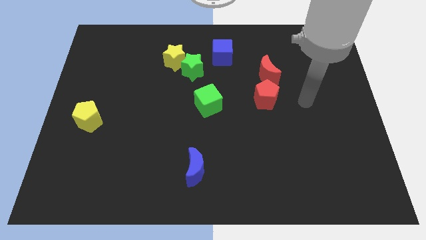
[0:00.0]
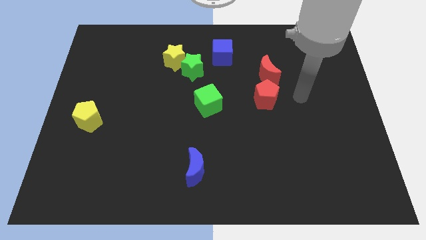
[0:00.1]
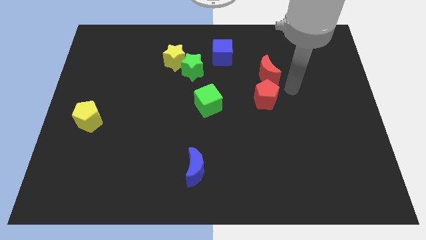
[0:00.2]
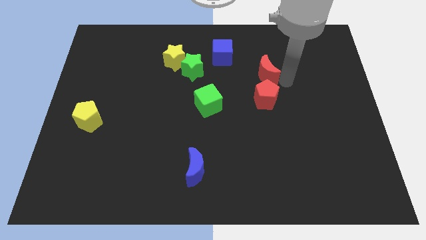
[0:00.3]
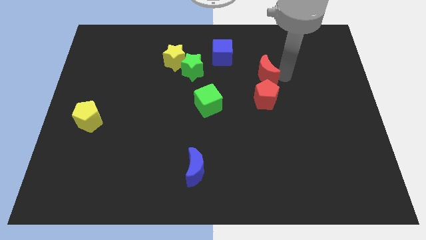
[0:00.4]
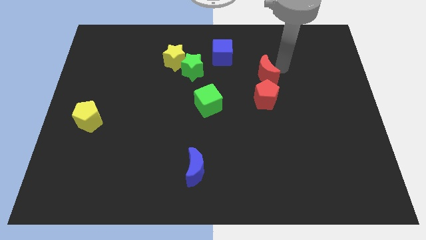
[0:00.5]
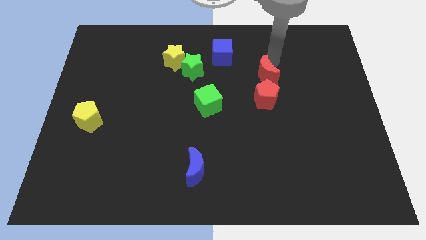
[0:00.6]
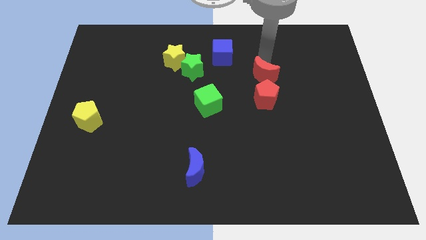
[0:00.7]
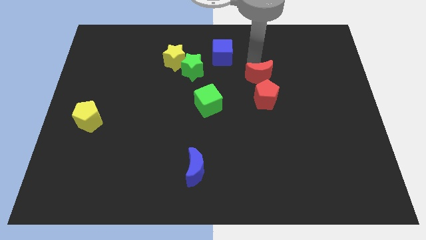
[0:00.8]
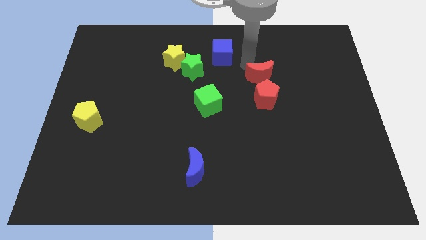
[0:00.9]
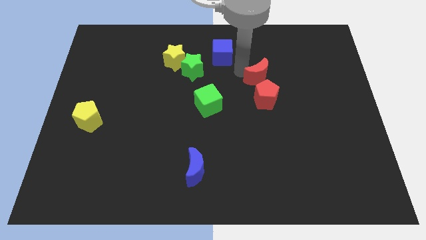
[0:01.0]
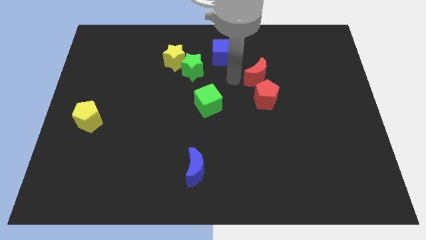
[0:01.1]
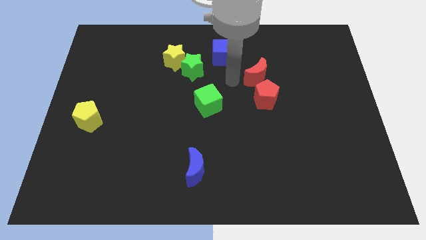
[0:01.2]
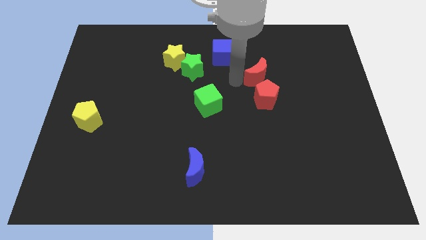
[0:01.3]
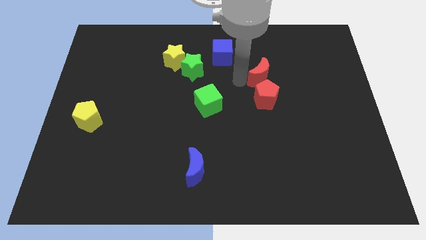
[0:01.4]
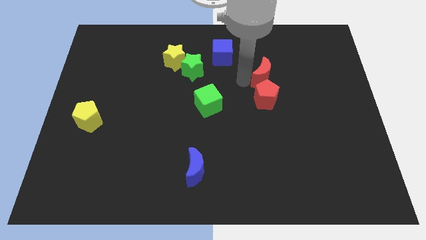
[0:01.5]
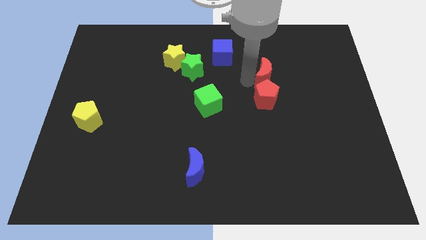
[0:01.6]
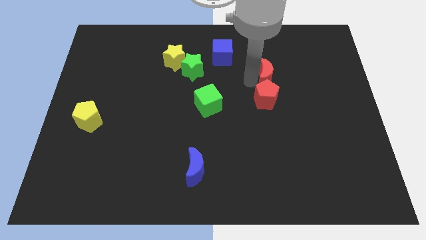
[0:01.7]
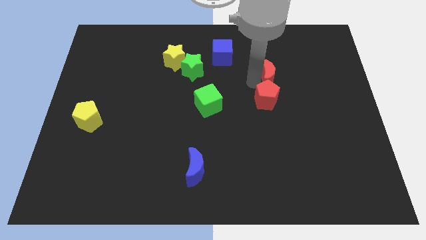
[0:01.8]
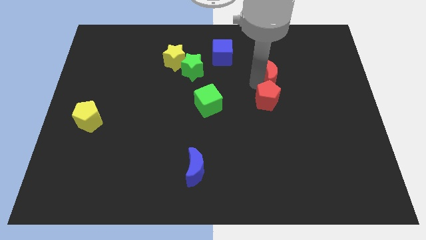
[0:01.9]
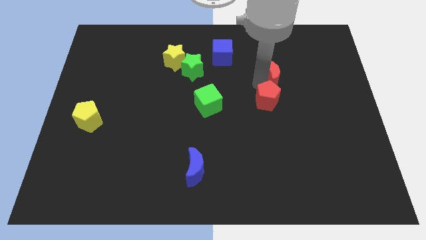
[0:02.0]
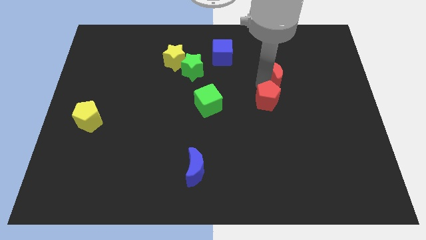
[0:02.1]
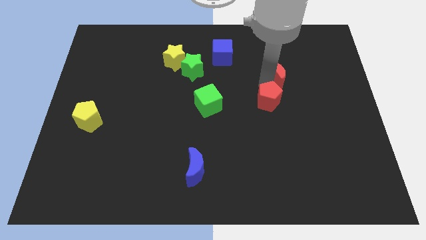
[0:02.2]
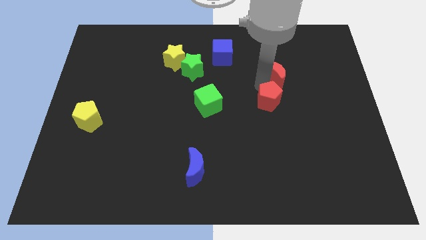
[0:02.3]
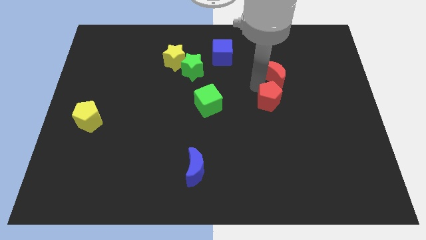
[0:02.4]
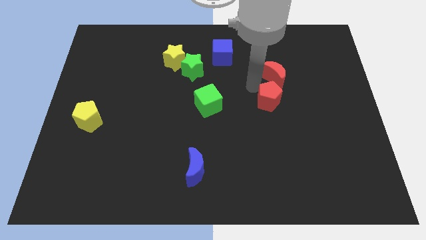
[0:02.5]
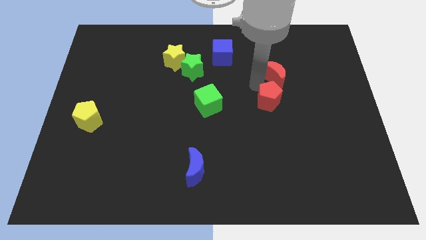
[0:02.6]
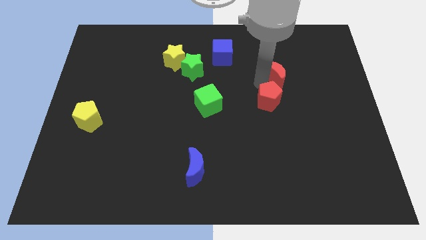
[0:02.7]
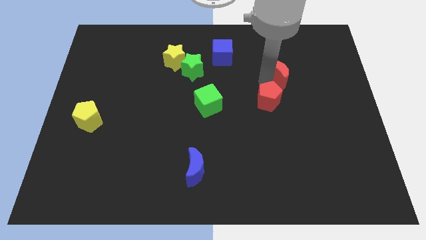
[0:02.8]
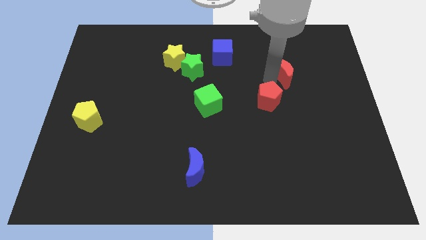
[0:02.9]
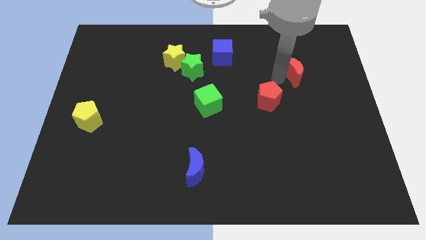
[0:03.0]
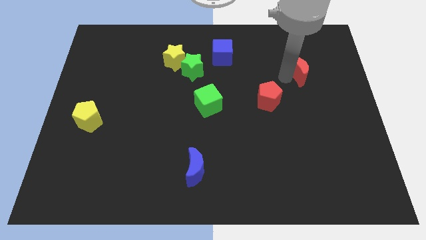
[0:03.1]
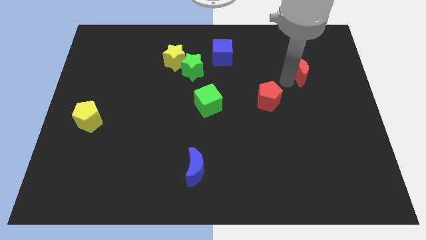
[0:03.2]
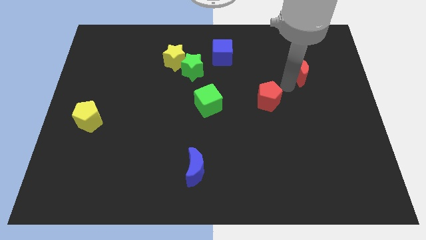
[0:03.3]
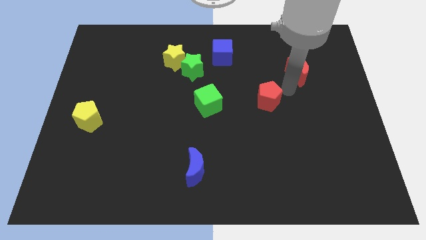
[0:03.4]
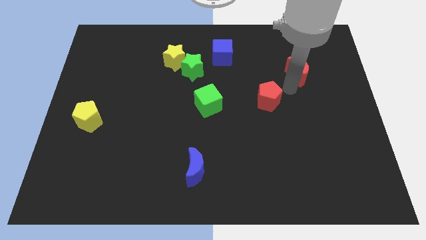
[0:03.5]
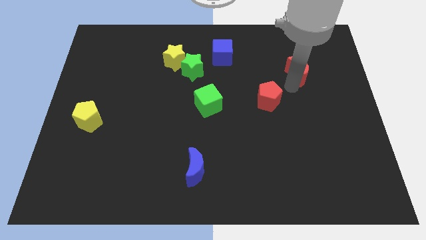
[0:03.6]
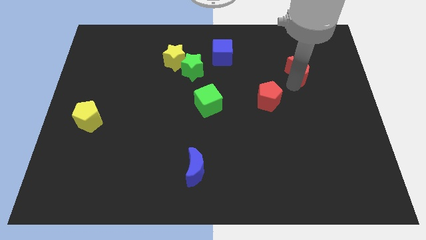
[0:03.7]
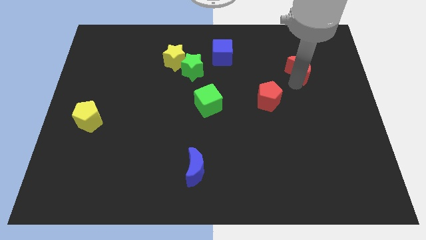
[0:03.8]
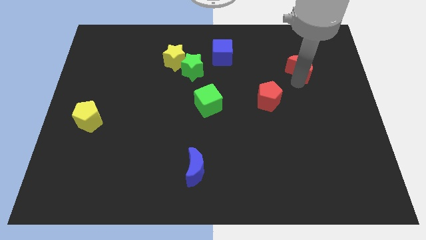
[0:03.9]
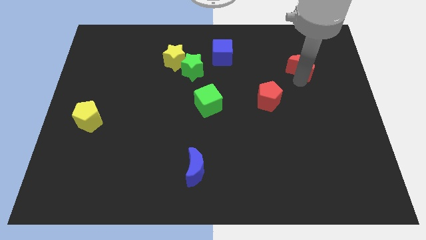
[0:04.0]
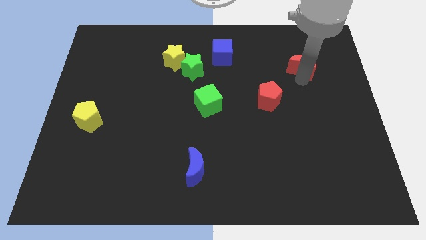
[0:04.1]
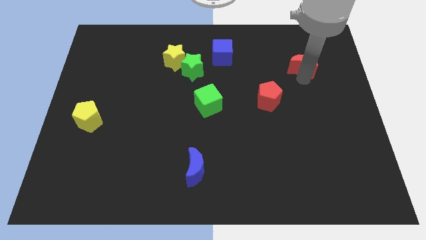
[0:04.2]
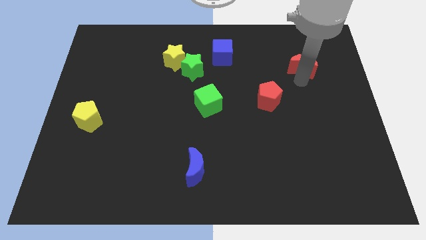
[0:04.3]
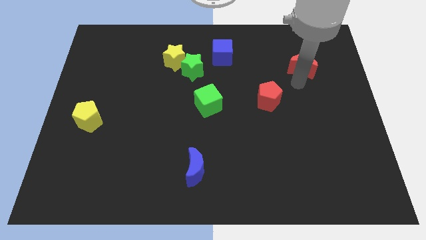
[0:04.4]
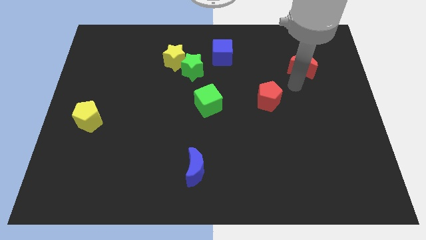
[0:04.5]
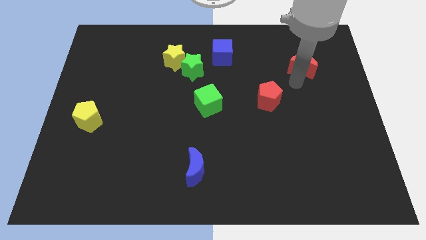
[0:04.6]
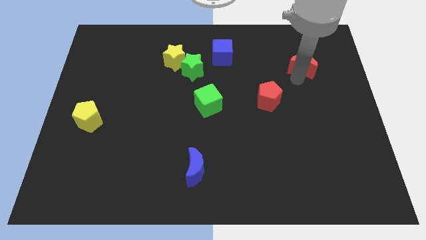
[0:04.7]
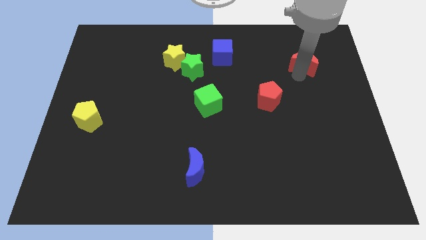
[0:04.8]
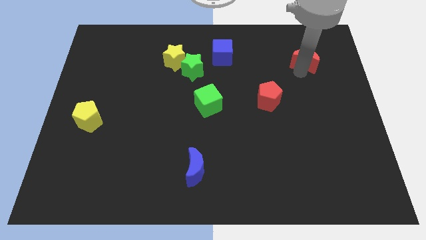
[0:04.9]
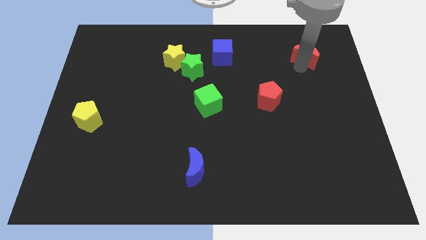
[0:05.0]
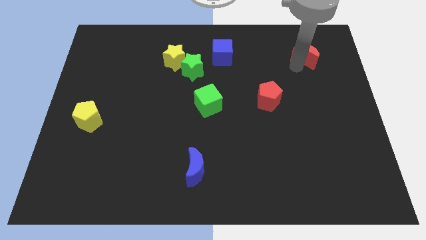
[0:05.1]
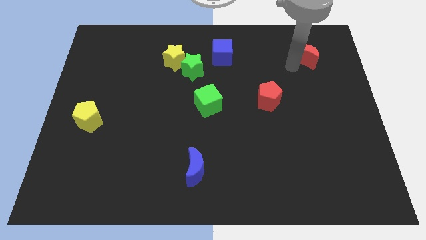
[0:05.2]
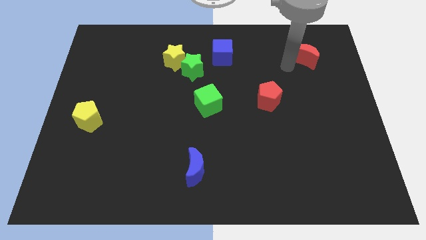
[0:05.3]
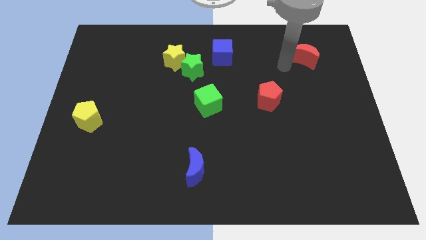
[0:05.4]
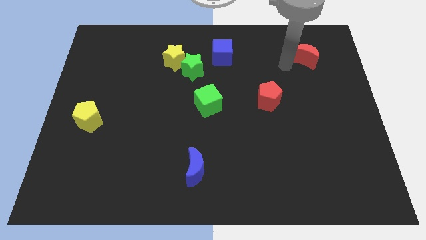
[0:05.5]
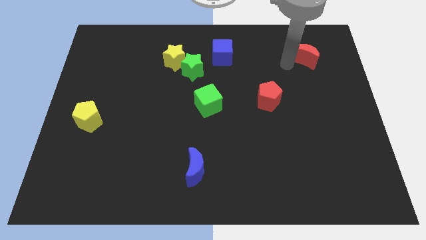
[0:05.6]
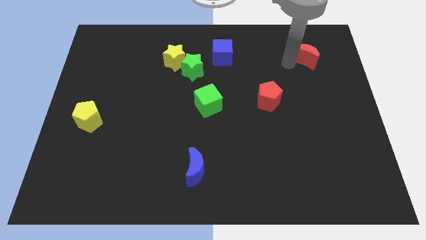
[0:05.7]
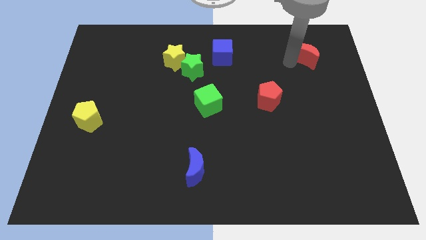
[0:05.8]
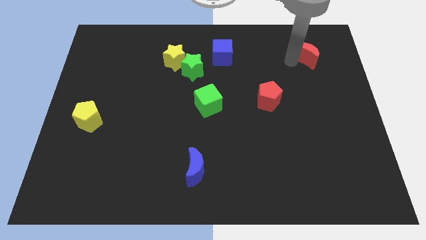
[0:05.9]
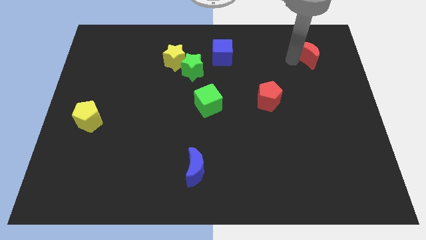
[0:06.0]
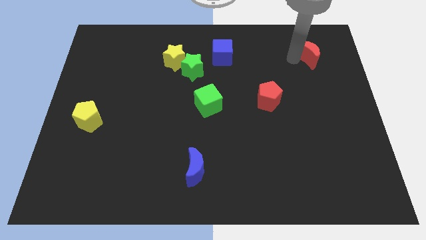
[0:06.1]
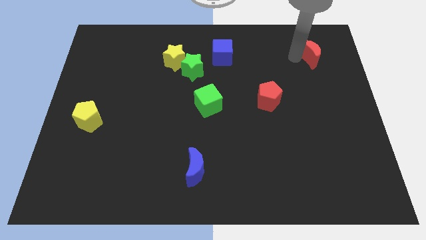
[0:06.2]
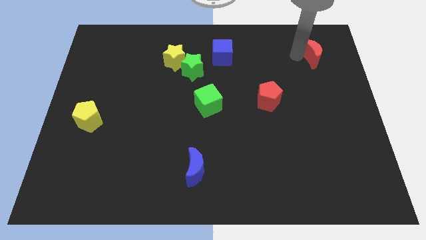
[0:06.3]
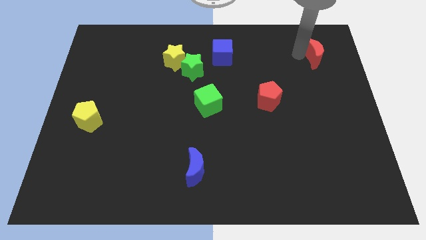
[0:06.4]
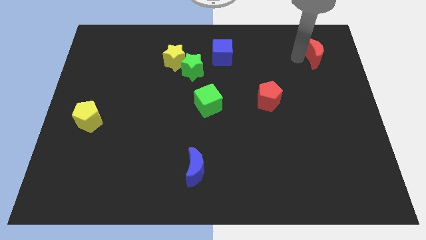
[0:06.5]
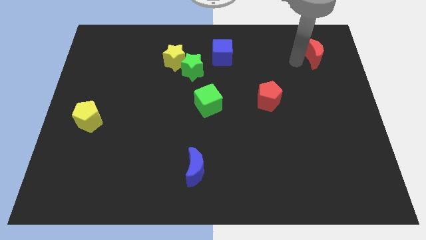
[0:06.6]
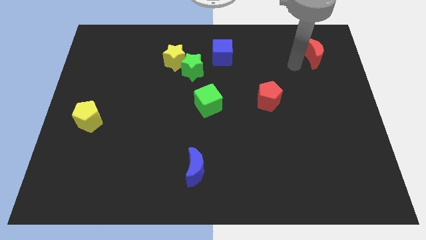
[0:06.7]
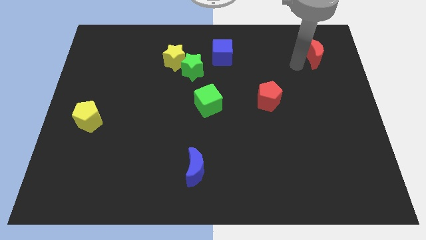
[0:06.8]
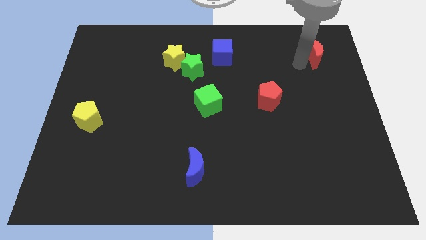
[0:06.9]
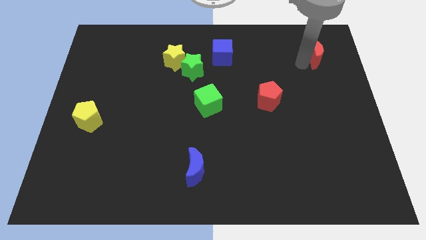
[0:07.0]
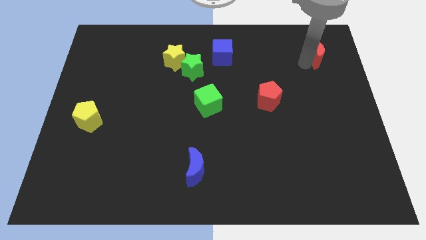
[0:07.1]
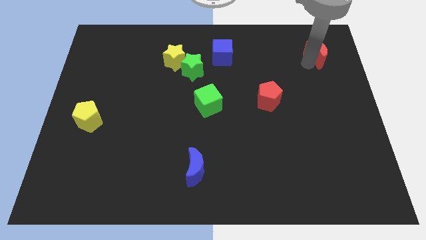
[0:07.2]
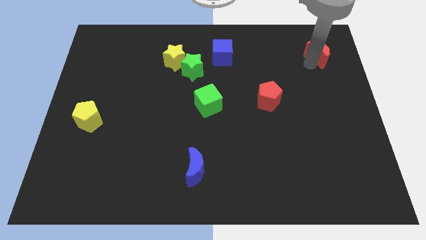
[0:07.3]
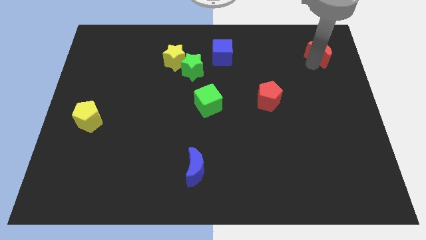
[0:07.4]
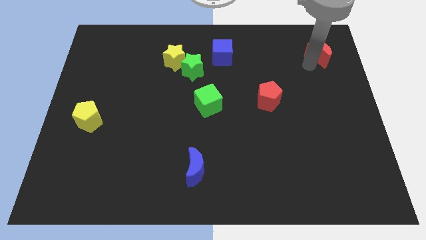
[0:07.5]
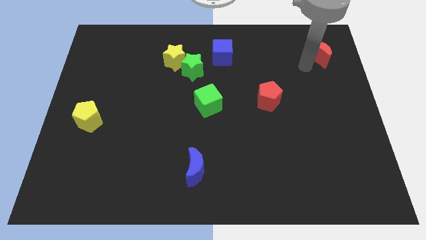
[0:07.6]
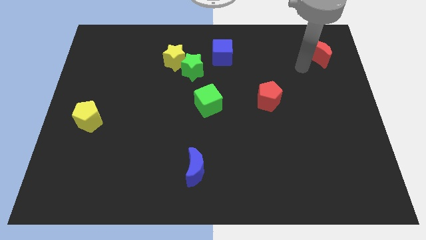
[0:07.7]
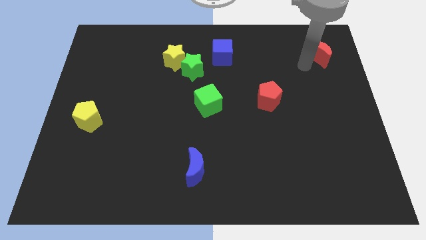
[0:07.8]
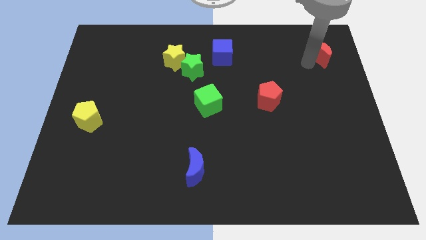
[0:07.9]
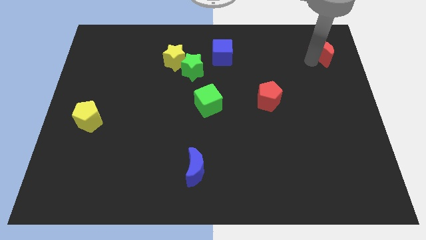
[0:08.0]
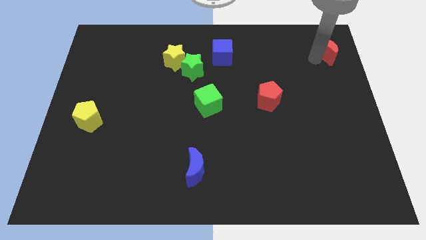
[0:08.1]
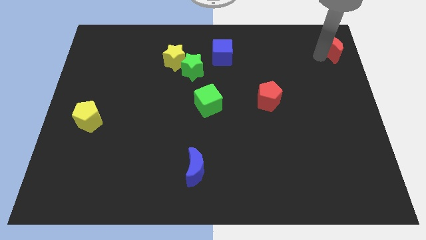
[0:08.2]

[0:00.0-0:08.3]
move the red moon to the top right
